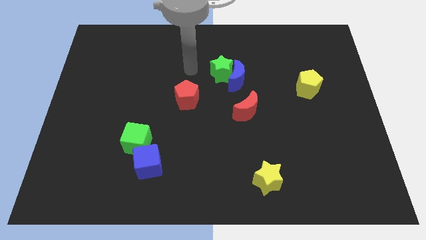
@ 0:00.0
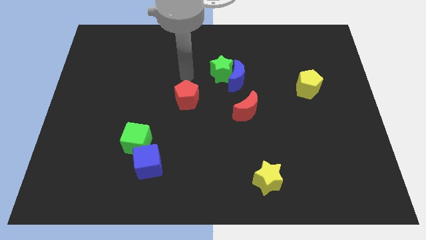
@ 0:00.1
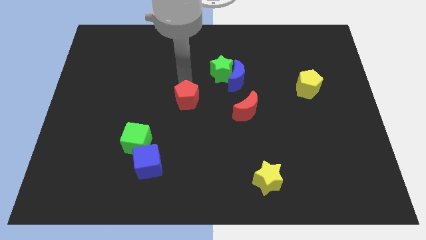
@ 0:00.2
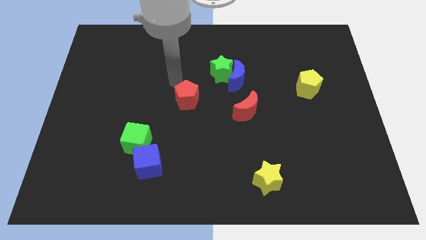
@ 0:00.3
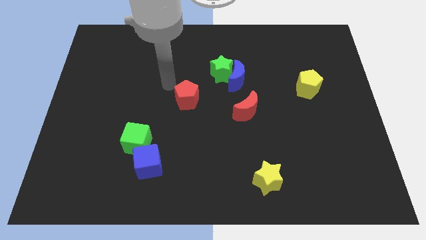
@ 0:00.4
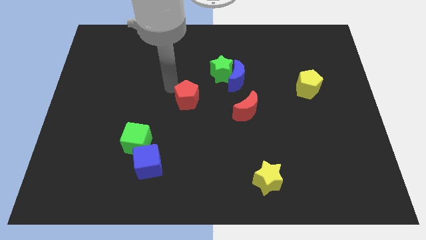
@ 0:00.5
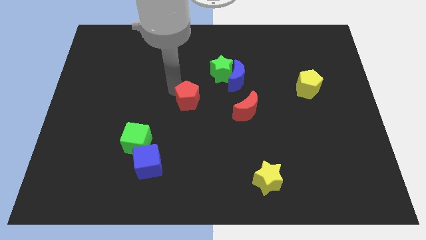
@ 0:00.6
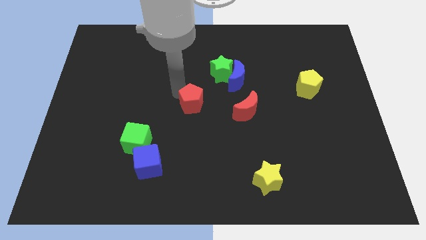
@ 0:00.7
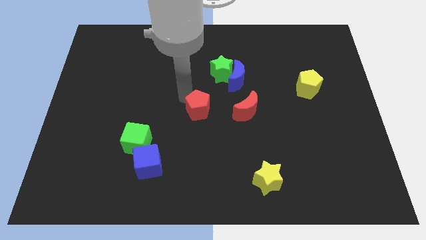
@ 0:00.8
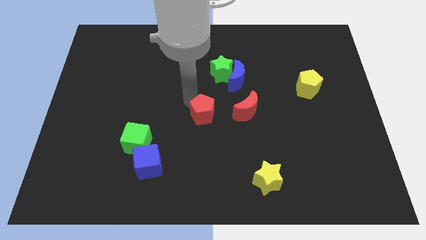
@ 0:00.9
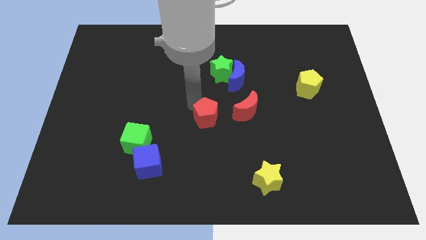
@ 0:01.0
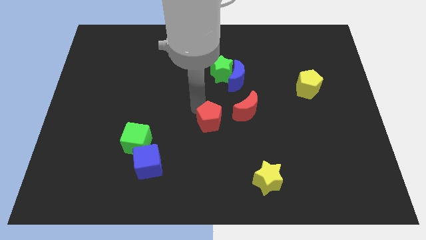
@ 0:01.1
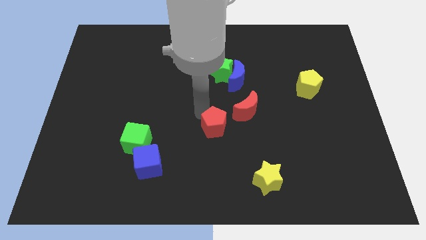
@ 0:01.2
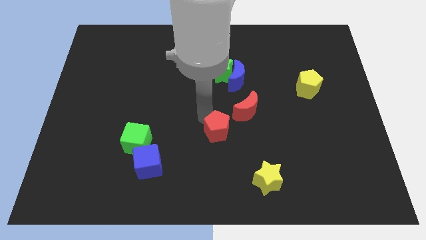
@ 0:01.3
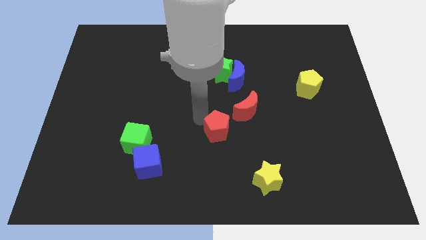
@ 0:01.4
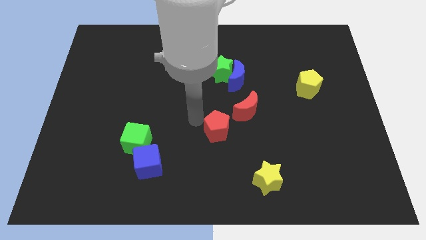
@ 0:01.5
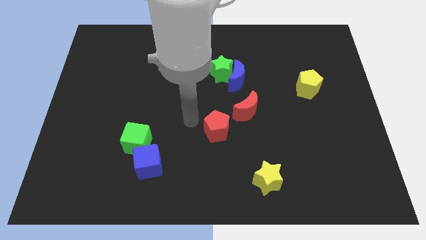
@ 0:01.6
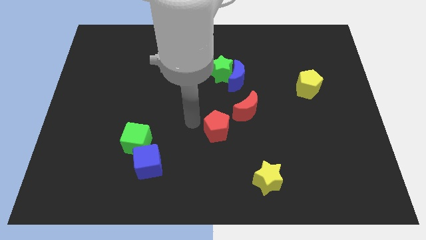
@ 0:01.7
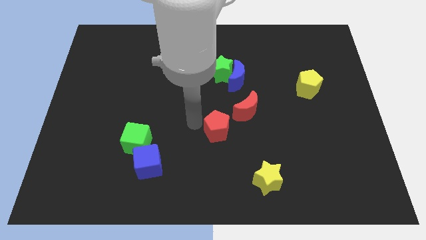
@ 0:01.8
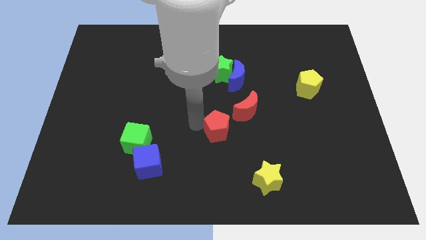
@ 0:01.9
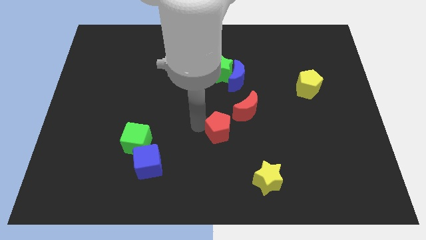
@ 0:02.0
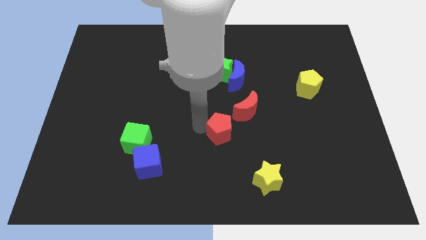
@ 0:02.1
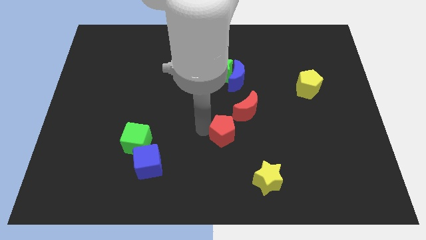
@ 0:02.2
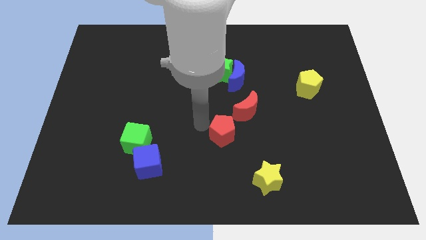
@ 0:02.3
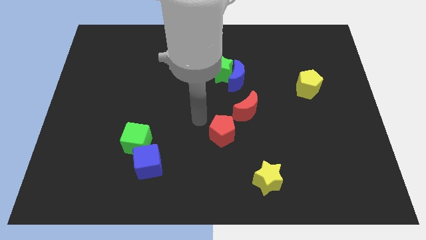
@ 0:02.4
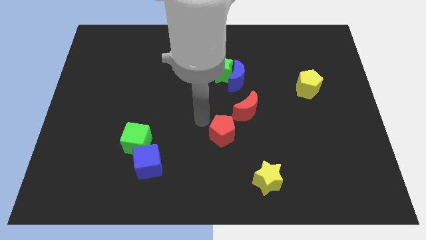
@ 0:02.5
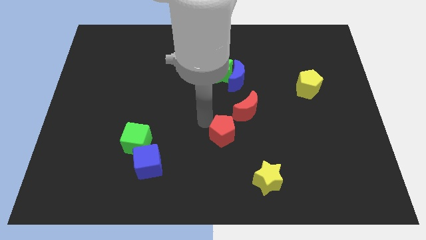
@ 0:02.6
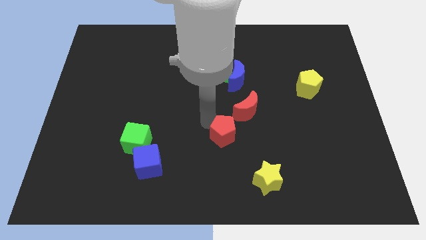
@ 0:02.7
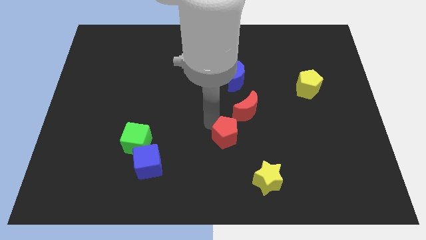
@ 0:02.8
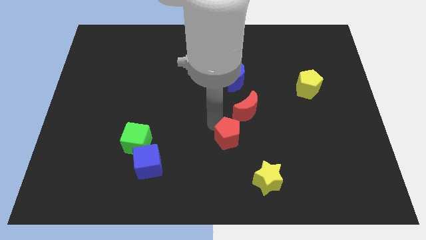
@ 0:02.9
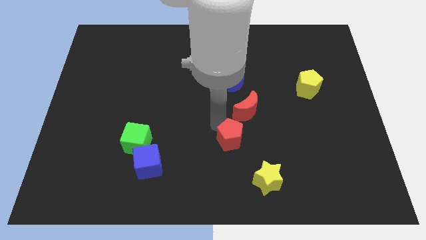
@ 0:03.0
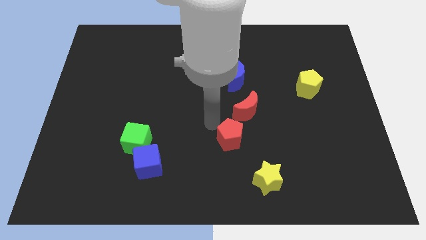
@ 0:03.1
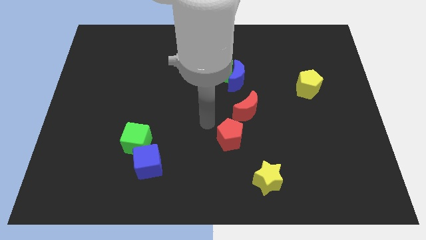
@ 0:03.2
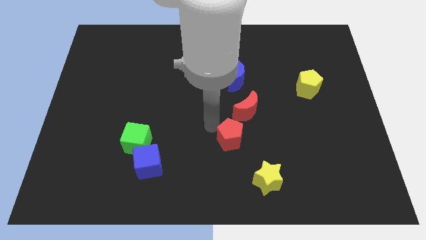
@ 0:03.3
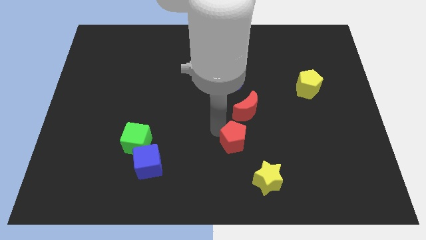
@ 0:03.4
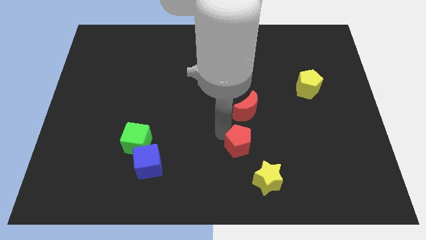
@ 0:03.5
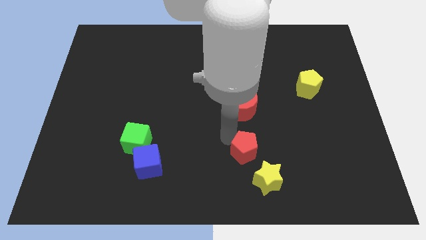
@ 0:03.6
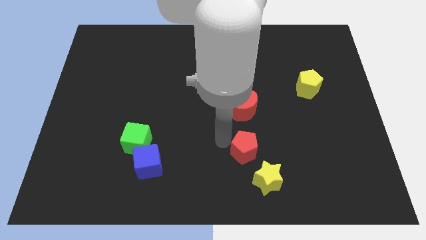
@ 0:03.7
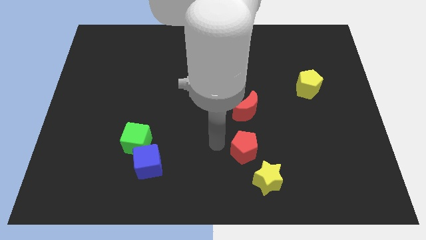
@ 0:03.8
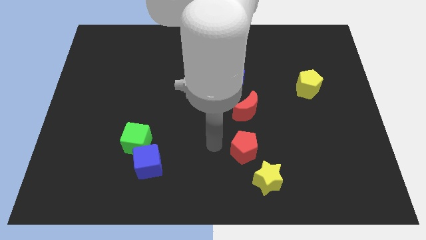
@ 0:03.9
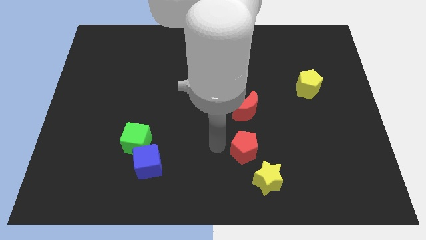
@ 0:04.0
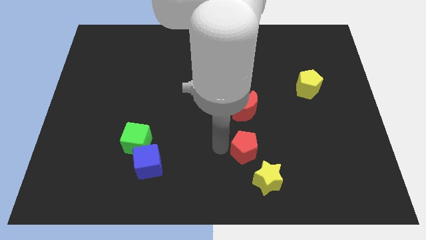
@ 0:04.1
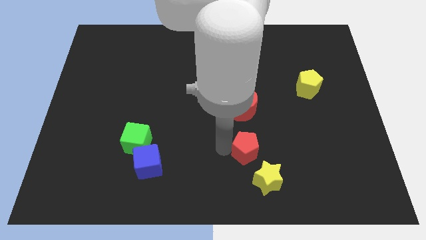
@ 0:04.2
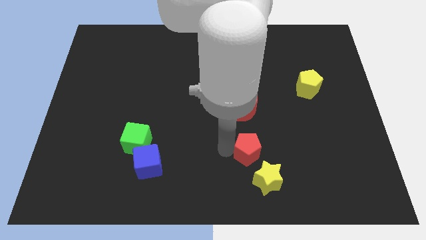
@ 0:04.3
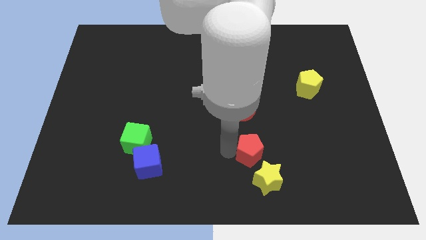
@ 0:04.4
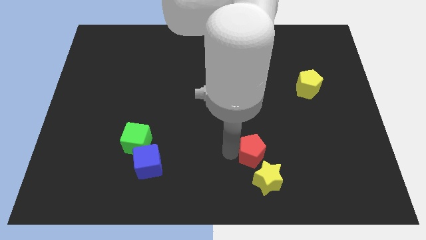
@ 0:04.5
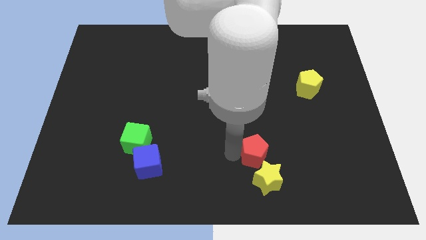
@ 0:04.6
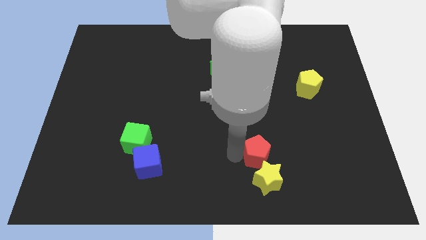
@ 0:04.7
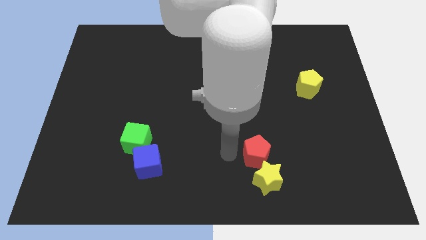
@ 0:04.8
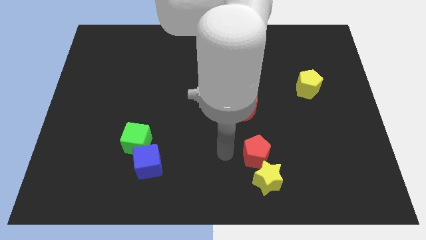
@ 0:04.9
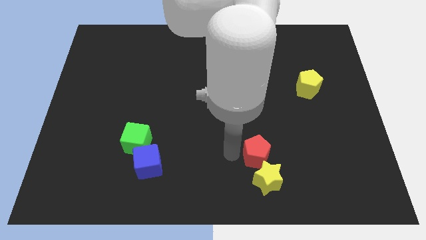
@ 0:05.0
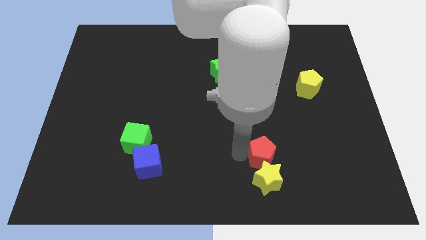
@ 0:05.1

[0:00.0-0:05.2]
push the red pentagon to the top right side of the yellow star

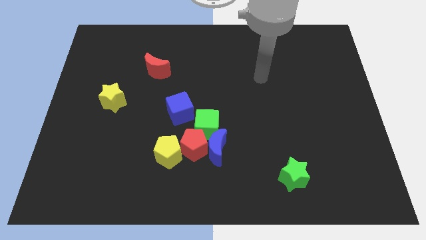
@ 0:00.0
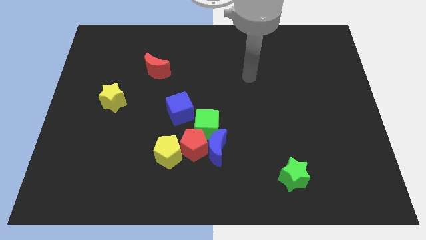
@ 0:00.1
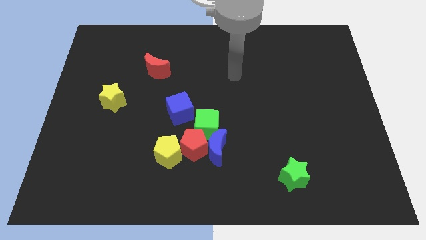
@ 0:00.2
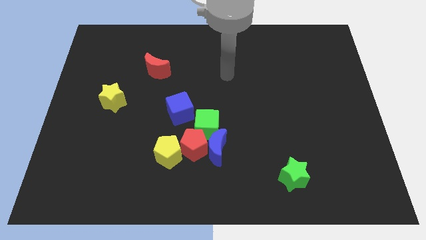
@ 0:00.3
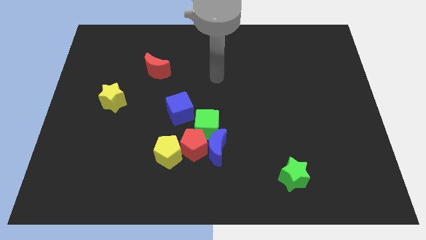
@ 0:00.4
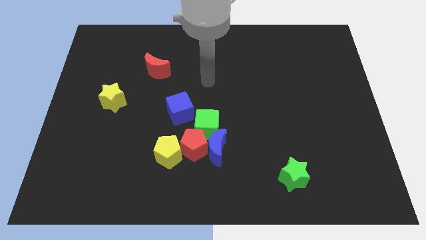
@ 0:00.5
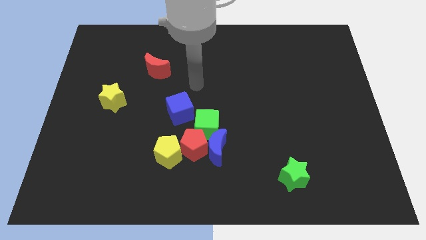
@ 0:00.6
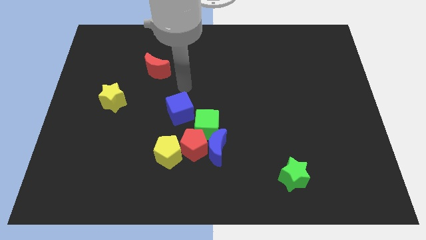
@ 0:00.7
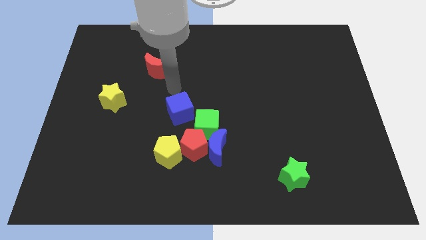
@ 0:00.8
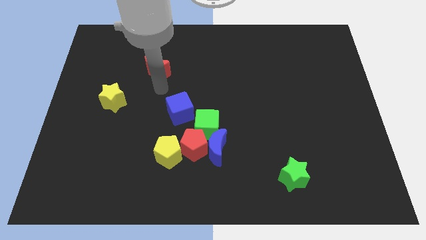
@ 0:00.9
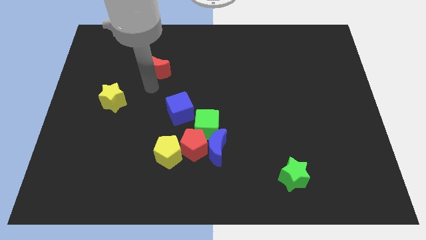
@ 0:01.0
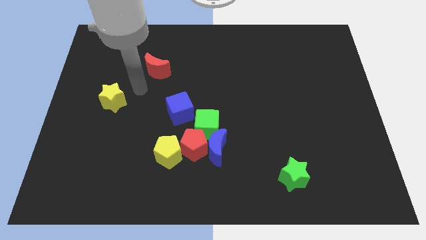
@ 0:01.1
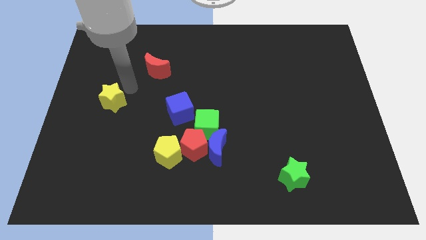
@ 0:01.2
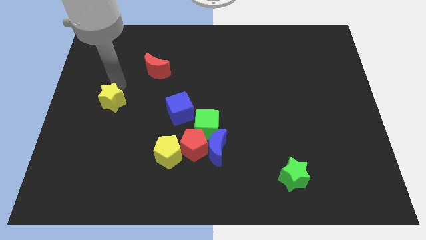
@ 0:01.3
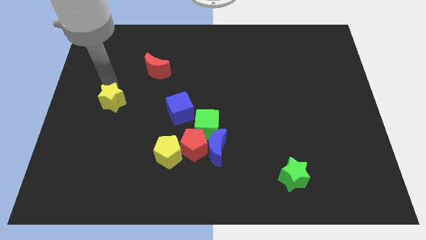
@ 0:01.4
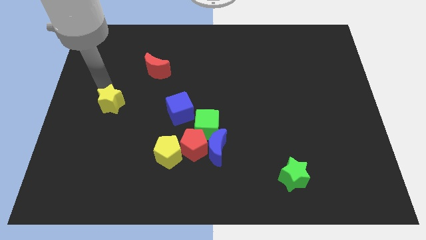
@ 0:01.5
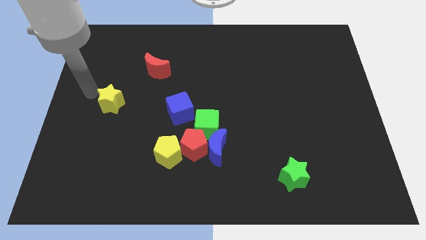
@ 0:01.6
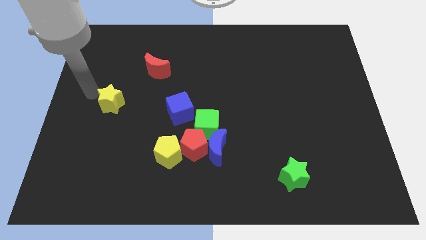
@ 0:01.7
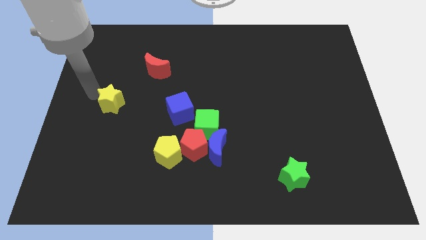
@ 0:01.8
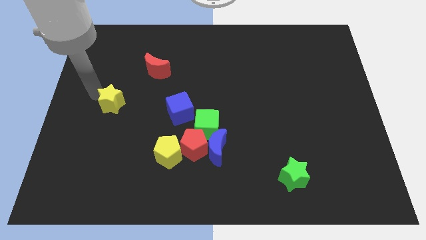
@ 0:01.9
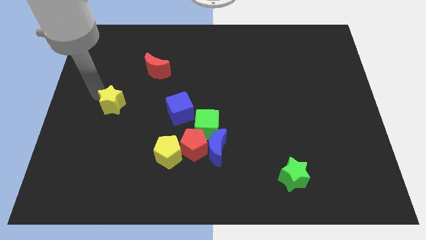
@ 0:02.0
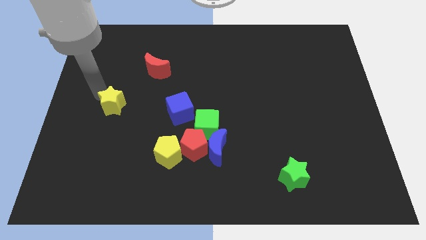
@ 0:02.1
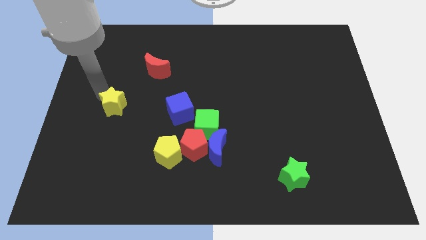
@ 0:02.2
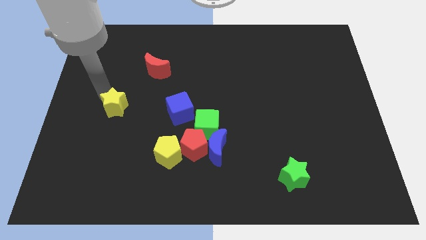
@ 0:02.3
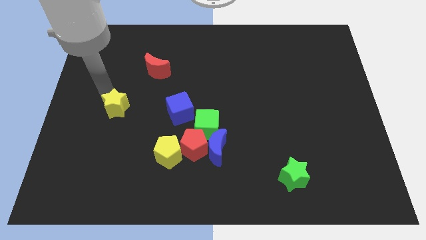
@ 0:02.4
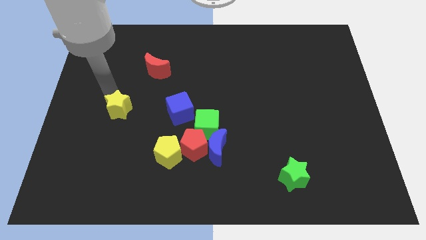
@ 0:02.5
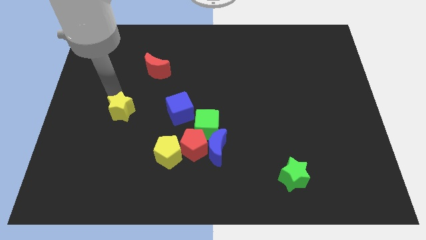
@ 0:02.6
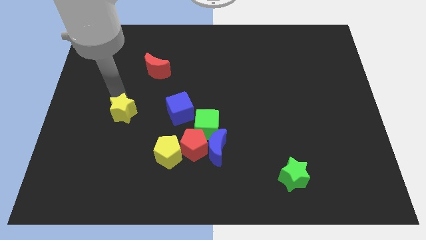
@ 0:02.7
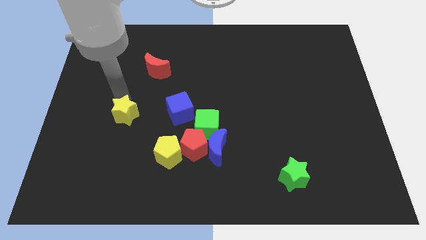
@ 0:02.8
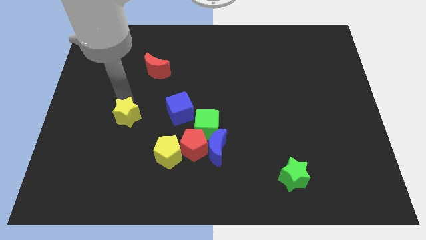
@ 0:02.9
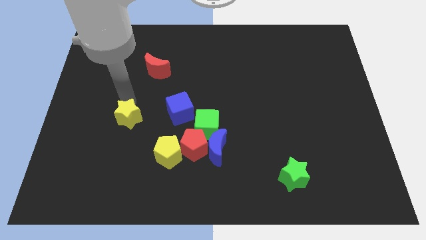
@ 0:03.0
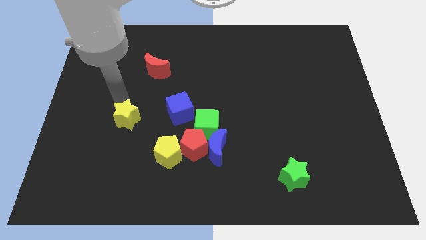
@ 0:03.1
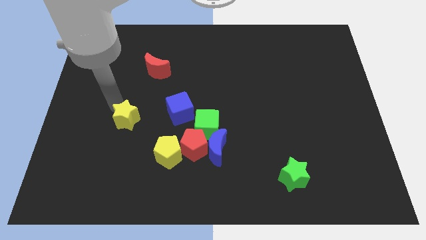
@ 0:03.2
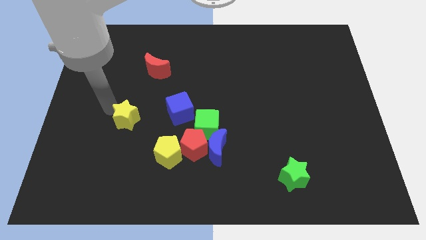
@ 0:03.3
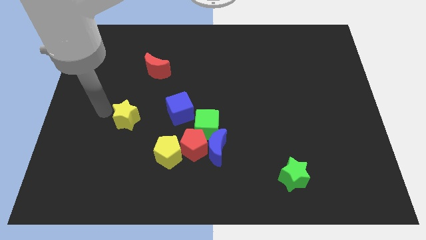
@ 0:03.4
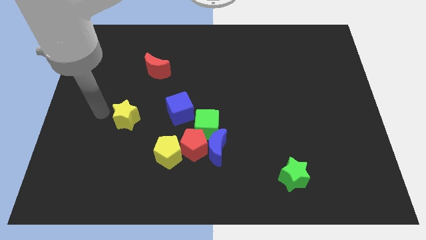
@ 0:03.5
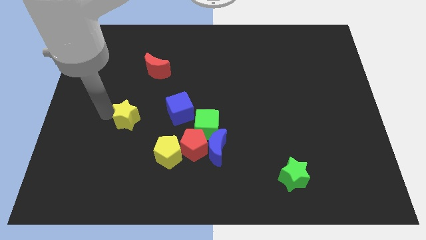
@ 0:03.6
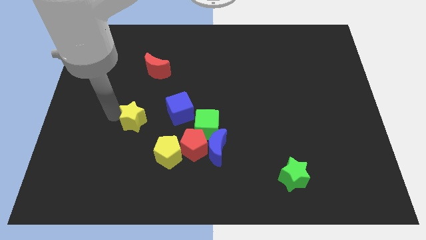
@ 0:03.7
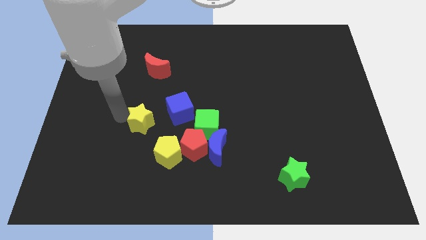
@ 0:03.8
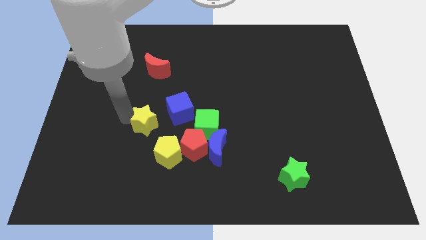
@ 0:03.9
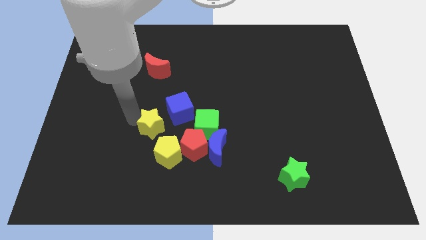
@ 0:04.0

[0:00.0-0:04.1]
slide the yellow star to the top left side of the red pentagon
